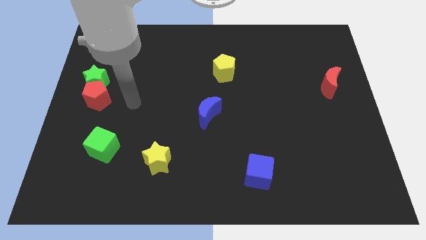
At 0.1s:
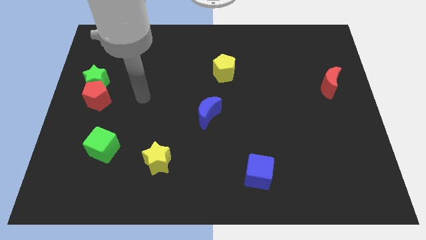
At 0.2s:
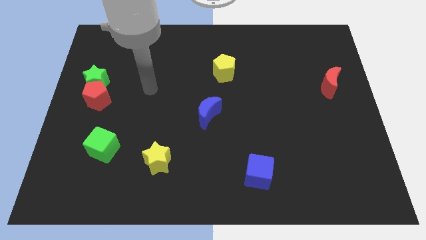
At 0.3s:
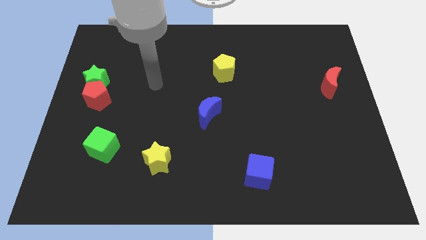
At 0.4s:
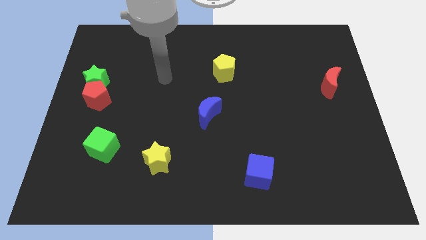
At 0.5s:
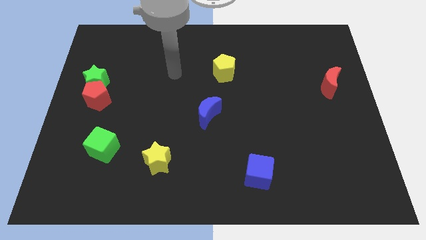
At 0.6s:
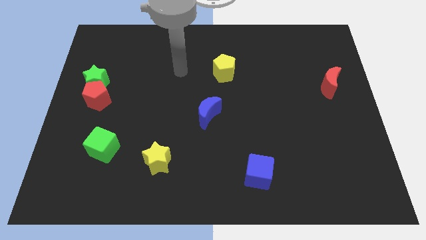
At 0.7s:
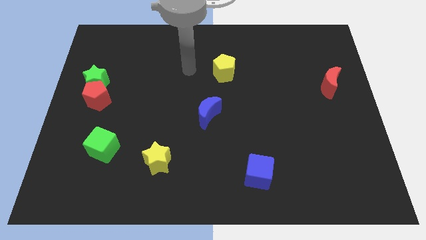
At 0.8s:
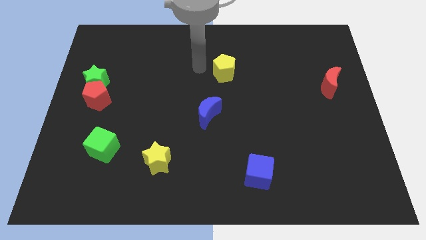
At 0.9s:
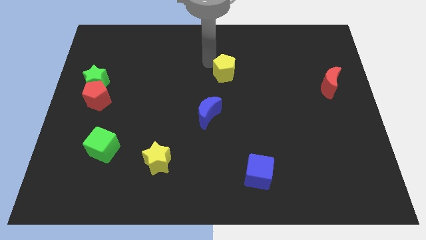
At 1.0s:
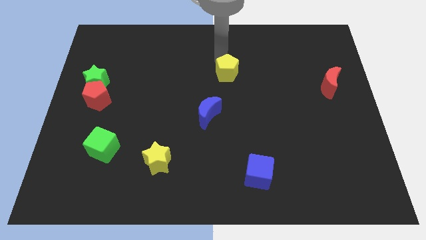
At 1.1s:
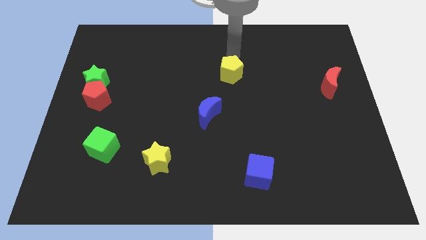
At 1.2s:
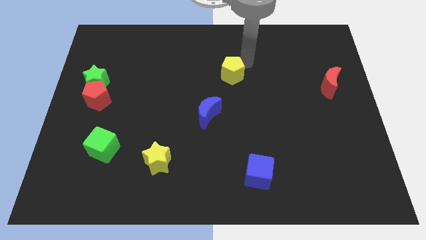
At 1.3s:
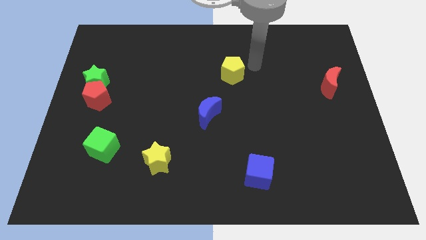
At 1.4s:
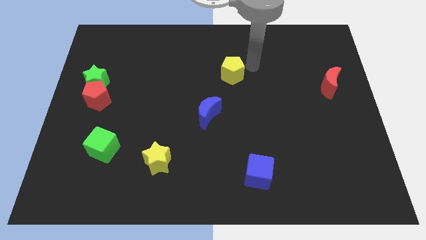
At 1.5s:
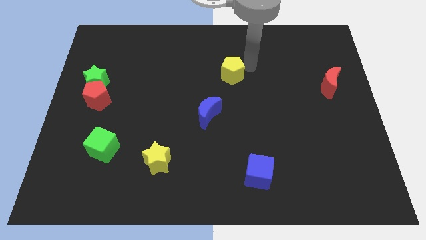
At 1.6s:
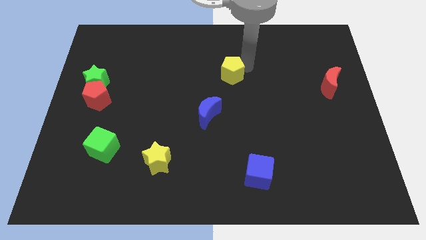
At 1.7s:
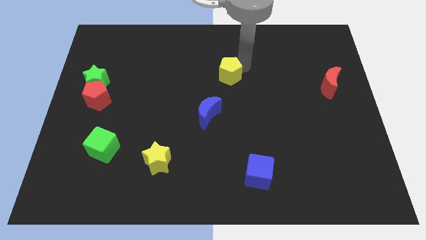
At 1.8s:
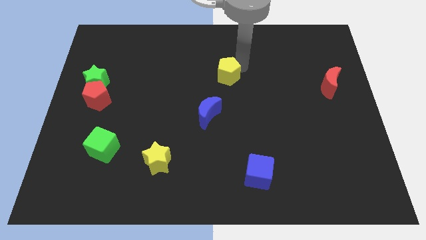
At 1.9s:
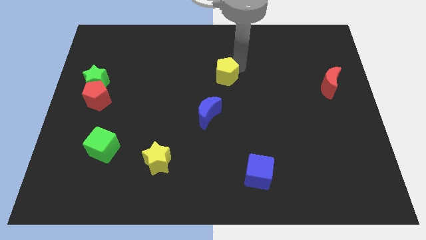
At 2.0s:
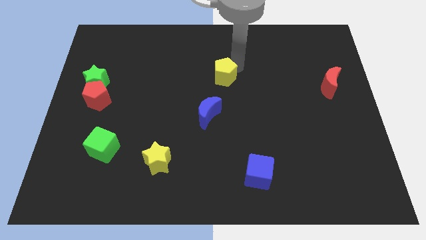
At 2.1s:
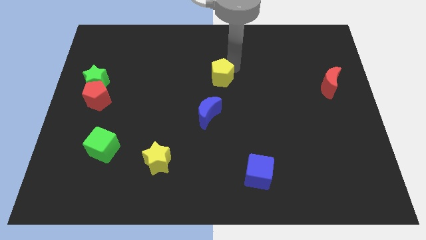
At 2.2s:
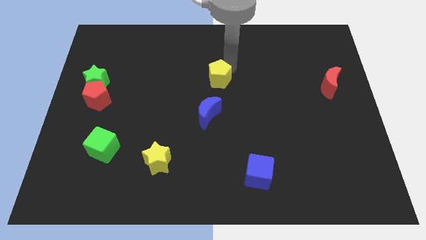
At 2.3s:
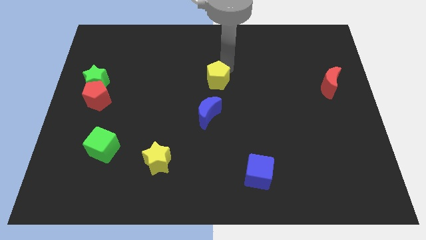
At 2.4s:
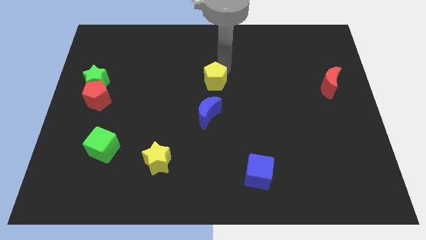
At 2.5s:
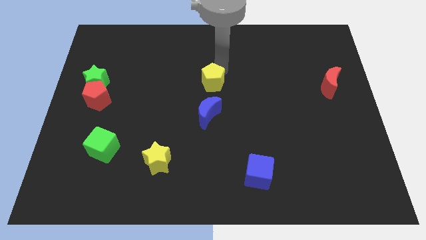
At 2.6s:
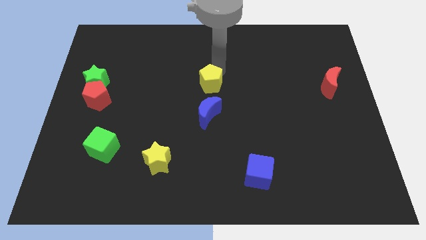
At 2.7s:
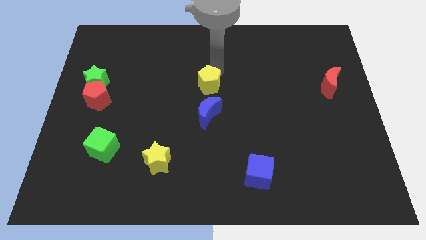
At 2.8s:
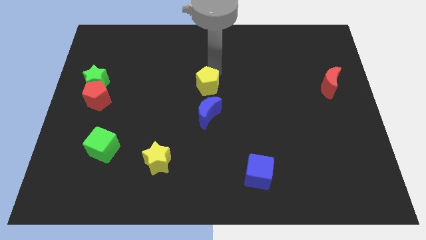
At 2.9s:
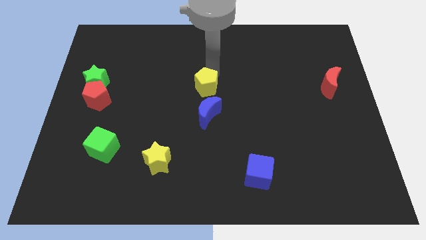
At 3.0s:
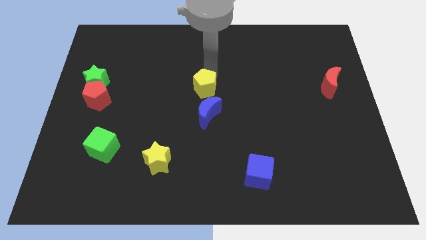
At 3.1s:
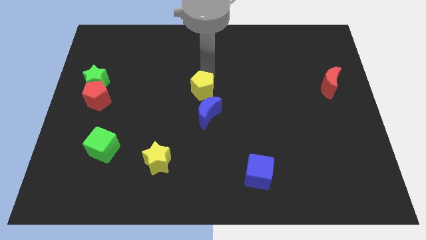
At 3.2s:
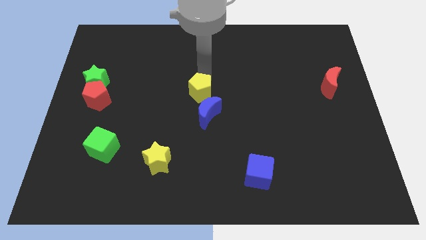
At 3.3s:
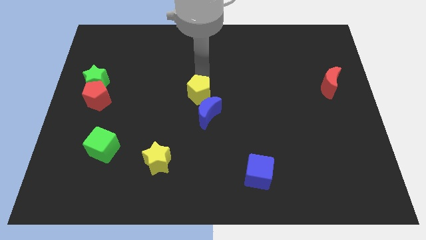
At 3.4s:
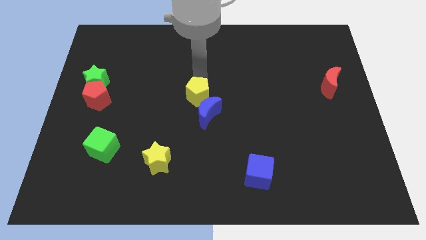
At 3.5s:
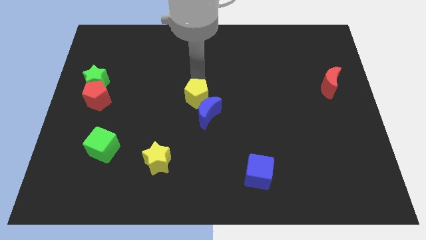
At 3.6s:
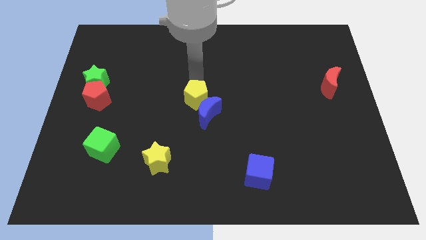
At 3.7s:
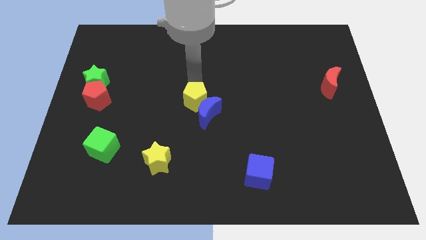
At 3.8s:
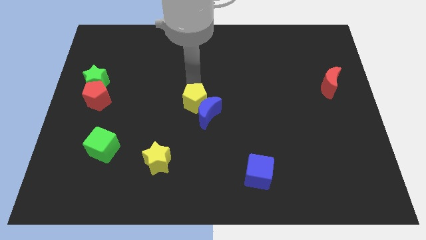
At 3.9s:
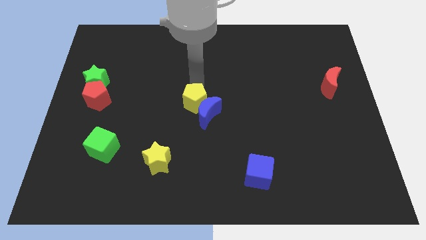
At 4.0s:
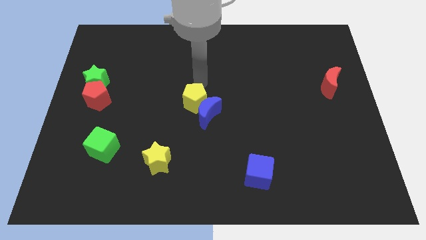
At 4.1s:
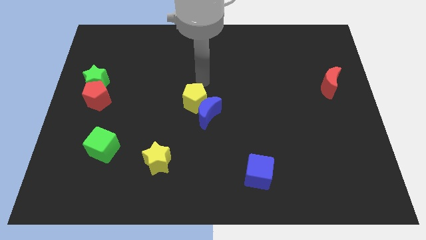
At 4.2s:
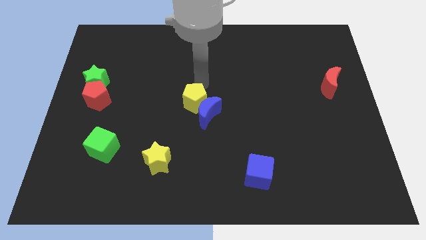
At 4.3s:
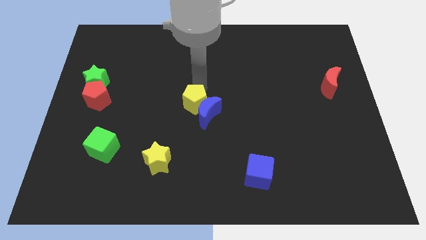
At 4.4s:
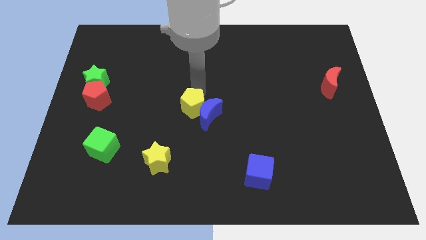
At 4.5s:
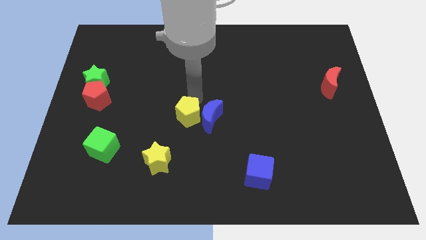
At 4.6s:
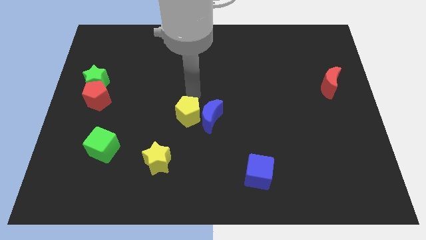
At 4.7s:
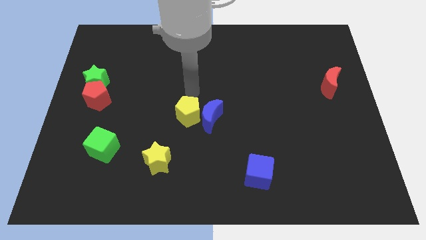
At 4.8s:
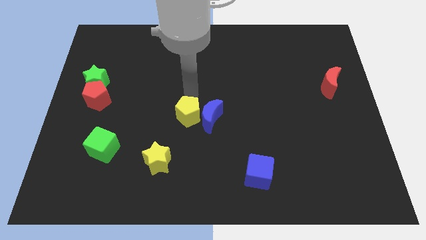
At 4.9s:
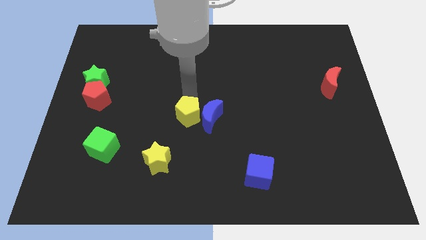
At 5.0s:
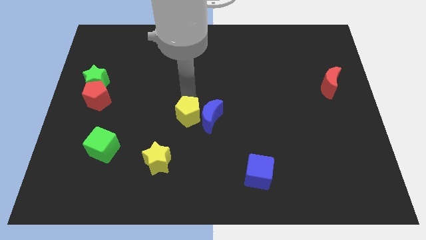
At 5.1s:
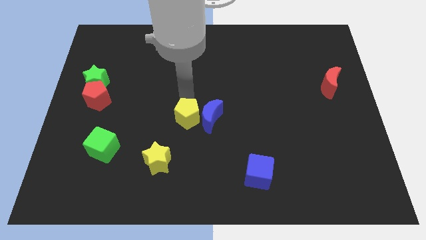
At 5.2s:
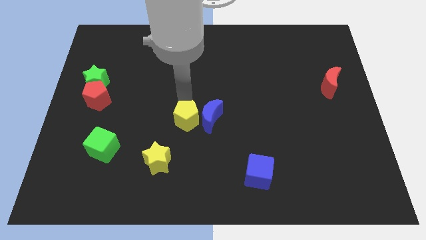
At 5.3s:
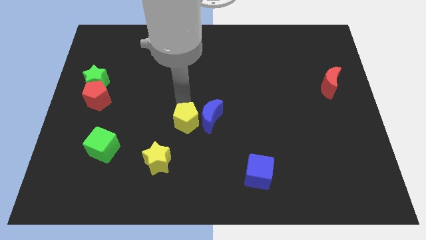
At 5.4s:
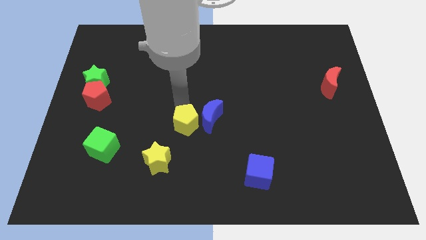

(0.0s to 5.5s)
push the yellow pentagon to the top right of the yellow star

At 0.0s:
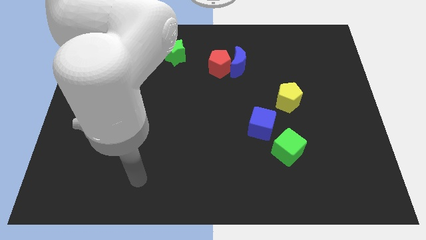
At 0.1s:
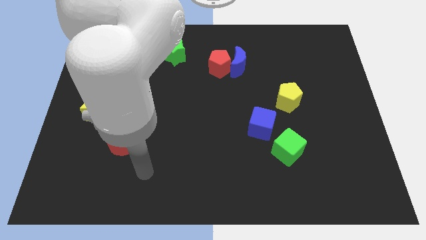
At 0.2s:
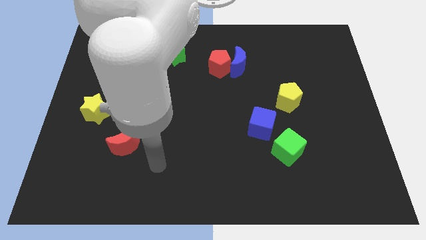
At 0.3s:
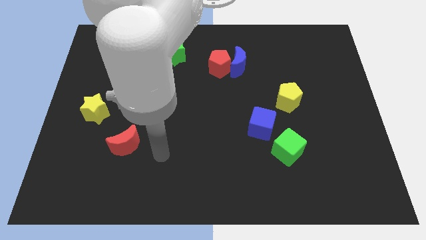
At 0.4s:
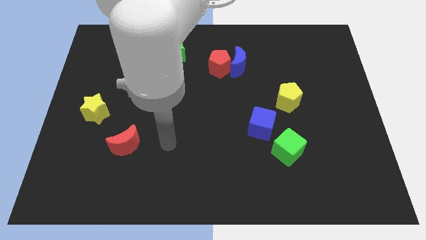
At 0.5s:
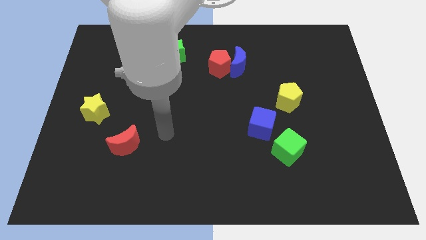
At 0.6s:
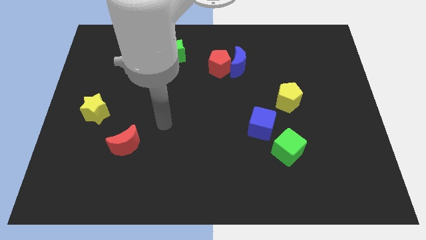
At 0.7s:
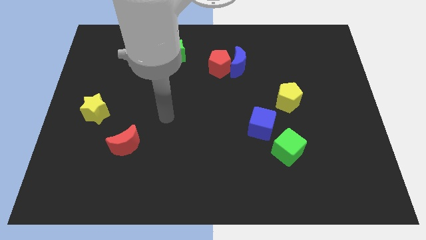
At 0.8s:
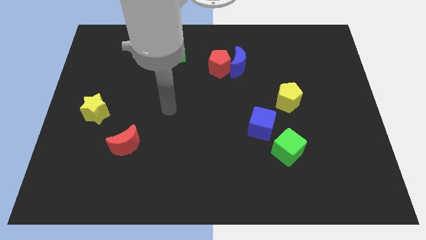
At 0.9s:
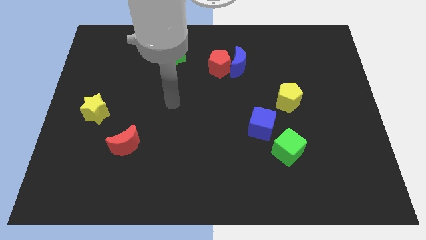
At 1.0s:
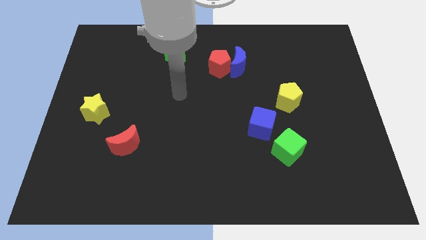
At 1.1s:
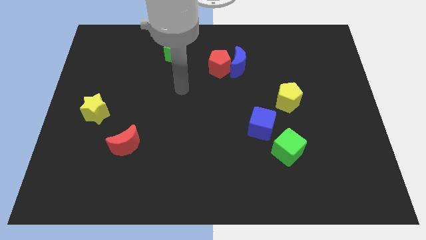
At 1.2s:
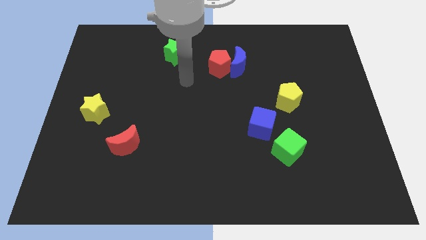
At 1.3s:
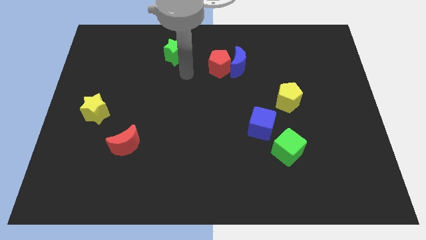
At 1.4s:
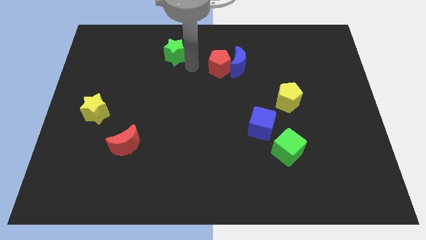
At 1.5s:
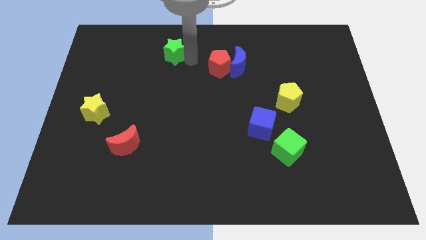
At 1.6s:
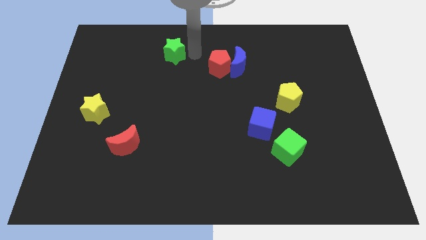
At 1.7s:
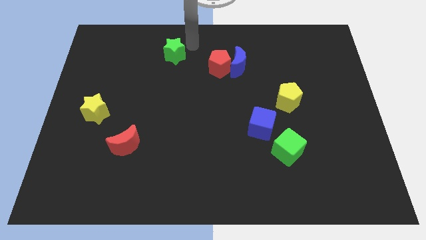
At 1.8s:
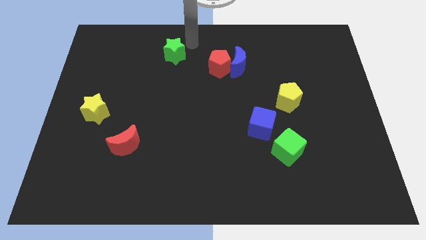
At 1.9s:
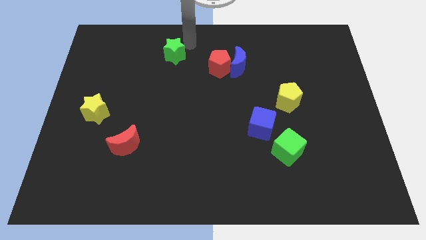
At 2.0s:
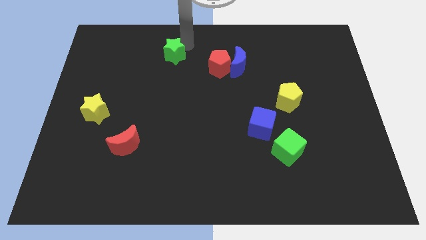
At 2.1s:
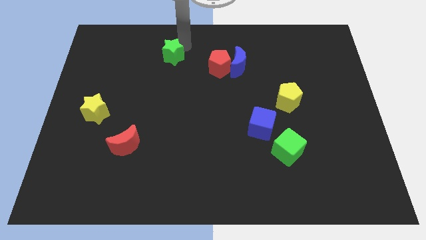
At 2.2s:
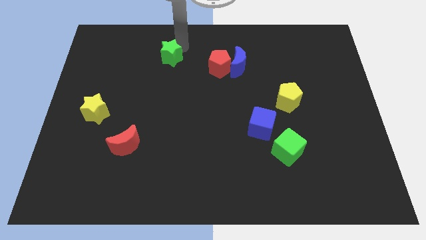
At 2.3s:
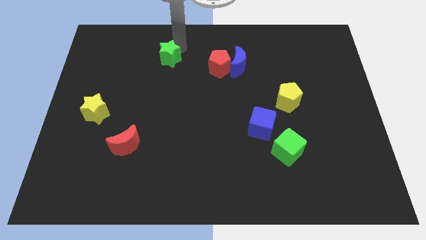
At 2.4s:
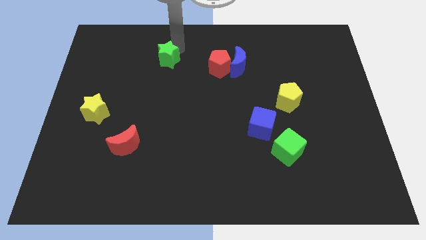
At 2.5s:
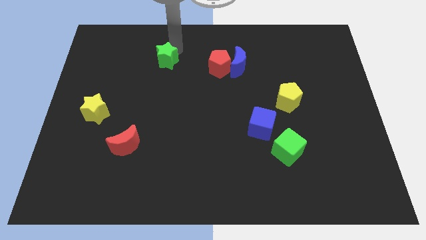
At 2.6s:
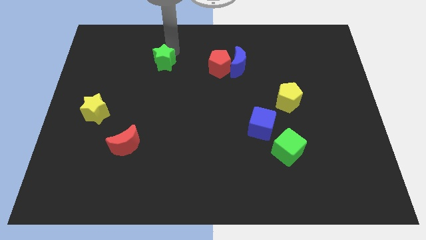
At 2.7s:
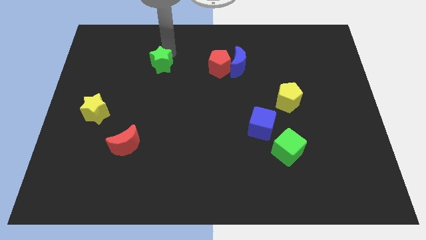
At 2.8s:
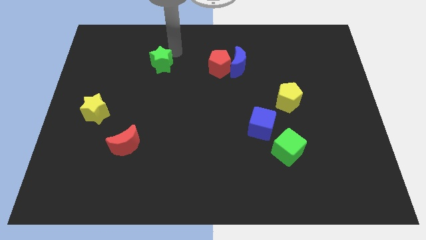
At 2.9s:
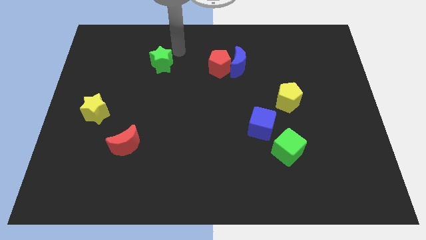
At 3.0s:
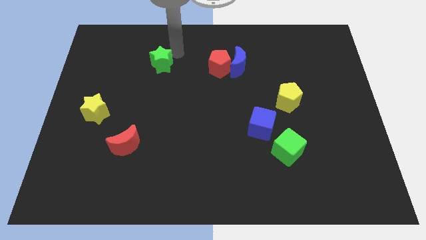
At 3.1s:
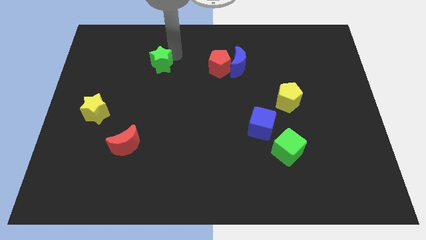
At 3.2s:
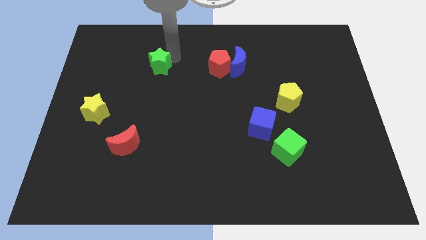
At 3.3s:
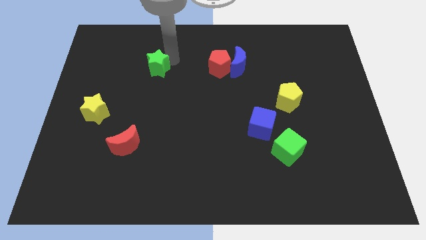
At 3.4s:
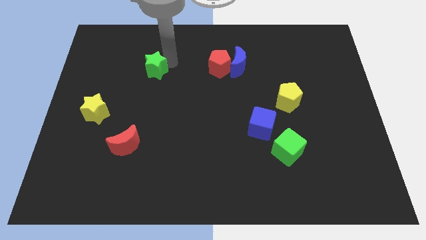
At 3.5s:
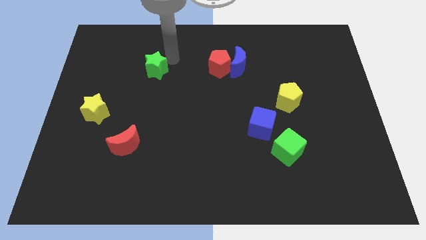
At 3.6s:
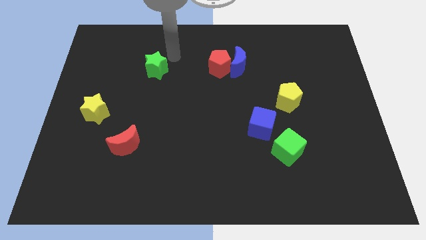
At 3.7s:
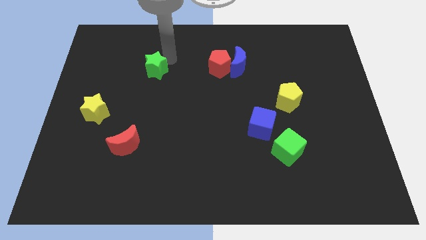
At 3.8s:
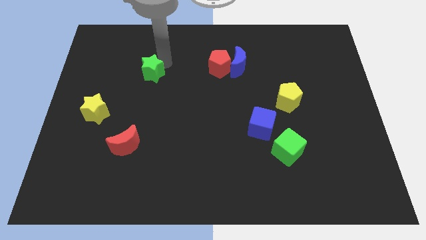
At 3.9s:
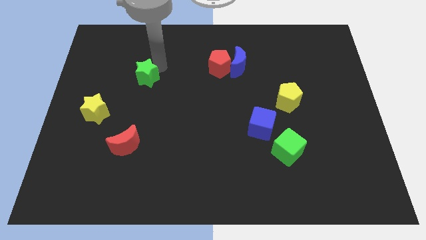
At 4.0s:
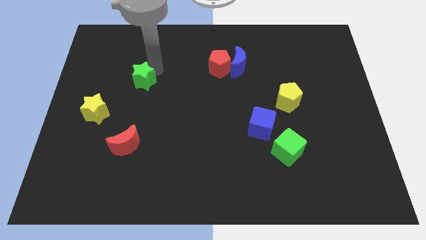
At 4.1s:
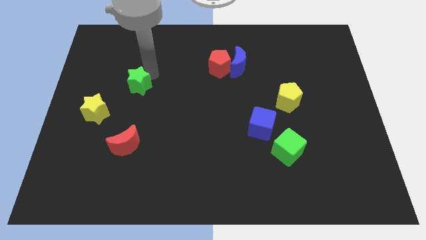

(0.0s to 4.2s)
slide the green star to the top right side of the yellow star
